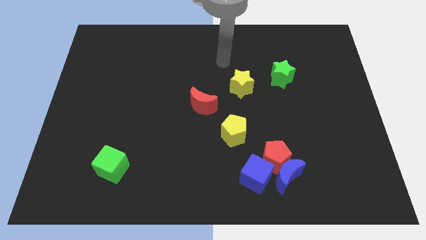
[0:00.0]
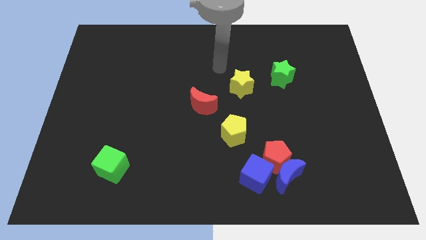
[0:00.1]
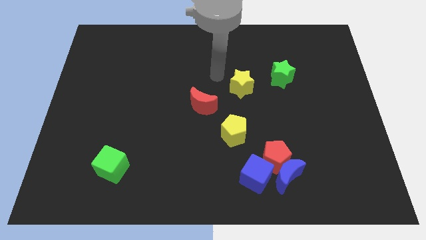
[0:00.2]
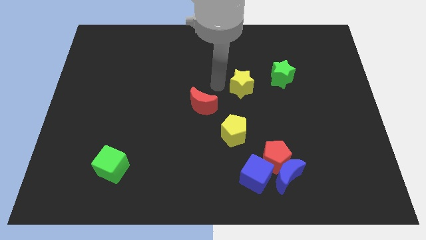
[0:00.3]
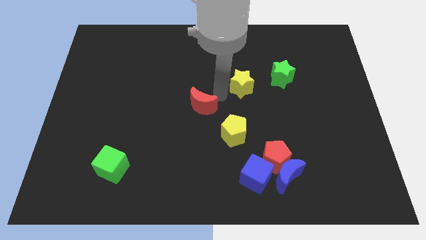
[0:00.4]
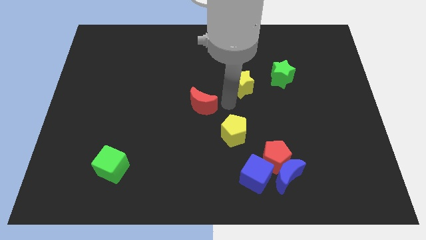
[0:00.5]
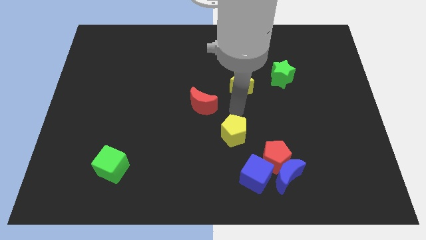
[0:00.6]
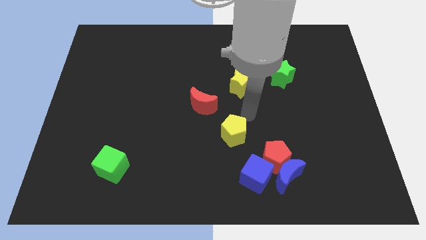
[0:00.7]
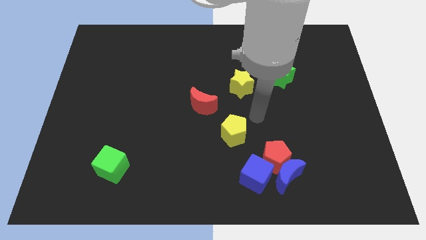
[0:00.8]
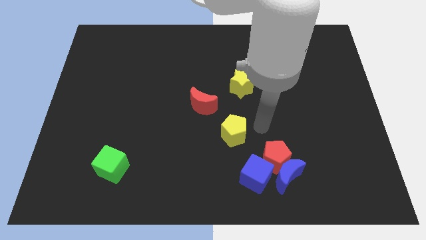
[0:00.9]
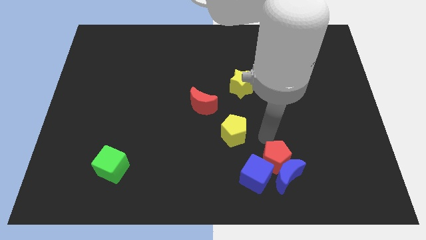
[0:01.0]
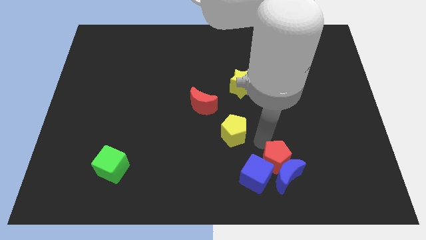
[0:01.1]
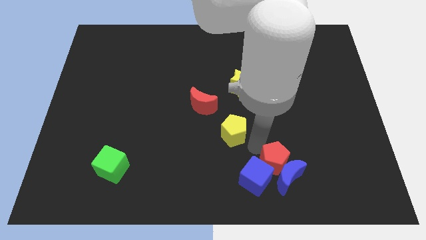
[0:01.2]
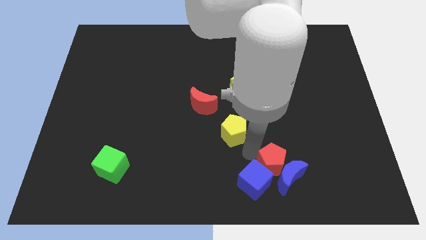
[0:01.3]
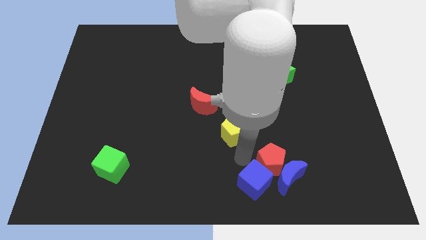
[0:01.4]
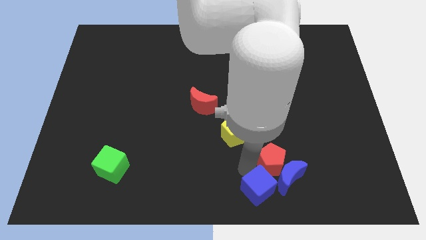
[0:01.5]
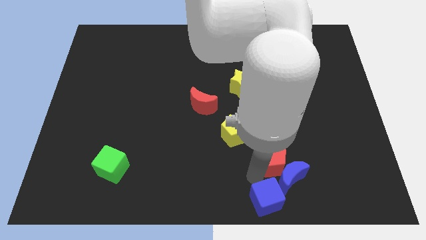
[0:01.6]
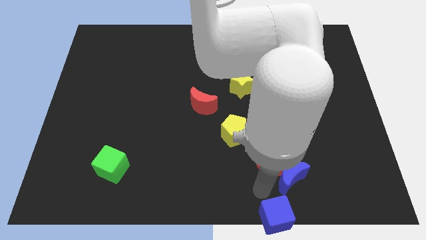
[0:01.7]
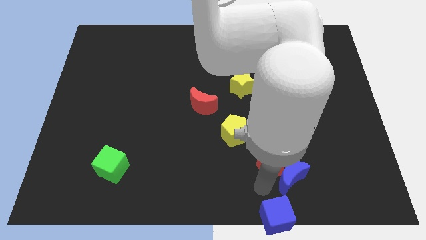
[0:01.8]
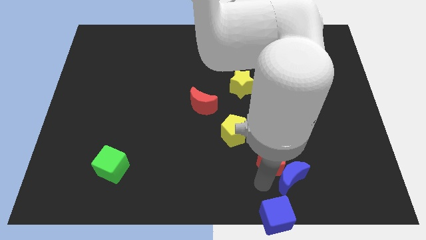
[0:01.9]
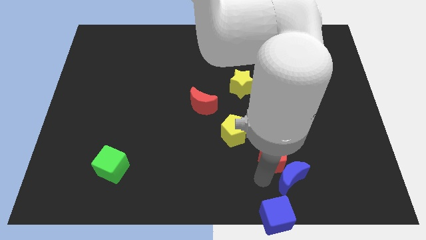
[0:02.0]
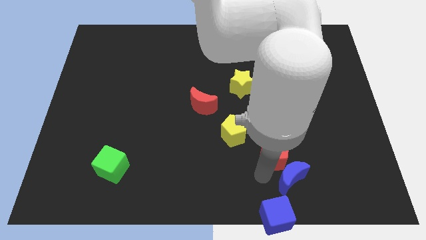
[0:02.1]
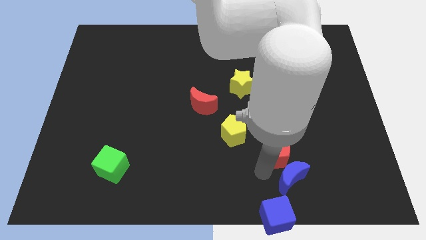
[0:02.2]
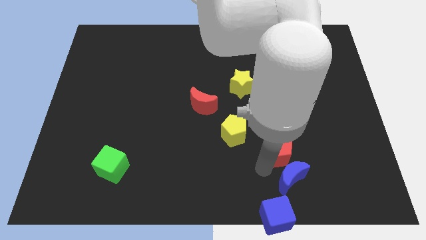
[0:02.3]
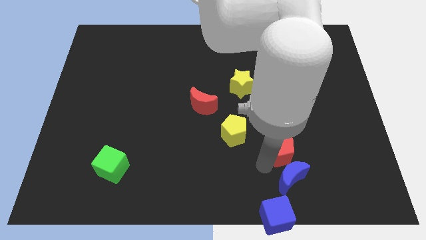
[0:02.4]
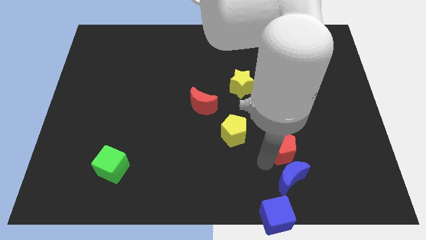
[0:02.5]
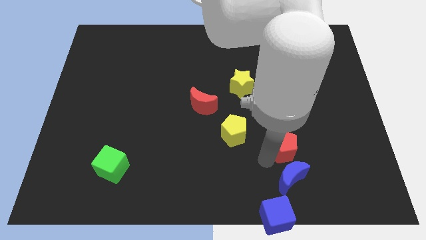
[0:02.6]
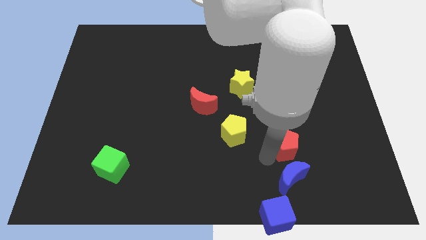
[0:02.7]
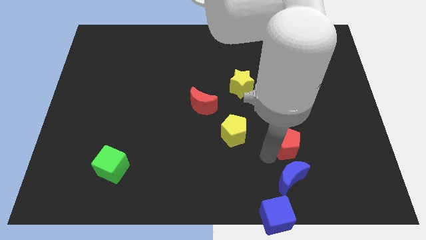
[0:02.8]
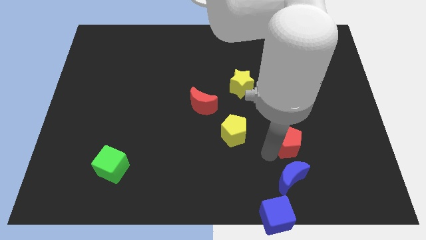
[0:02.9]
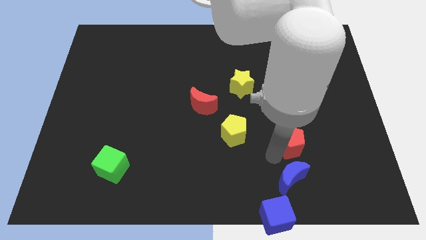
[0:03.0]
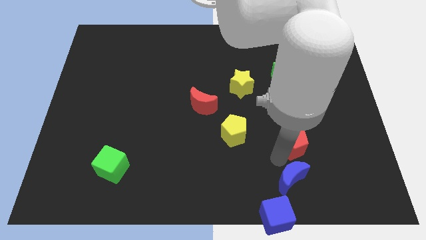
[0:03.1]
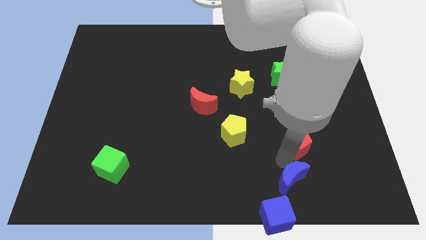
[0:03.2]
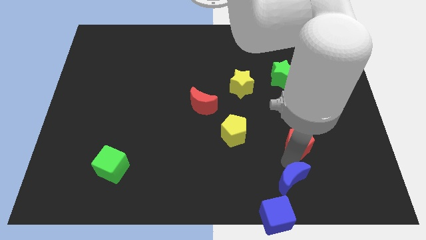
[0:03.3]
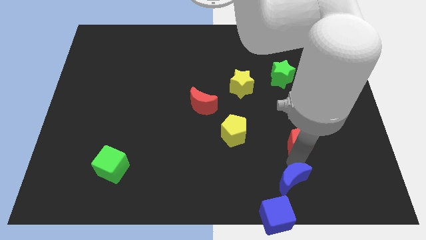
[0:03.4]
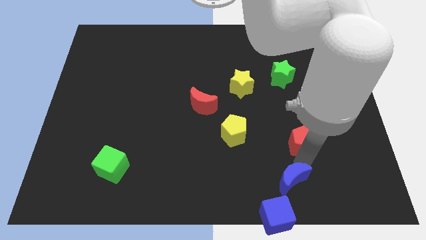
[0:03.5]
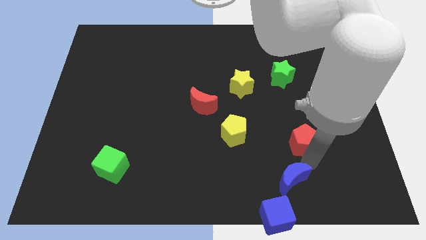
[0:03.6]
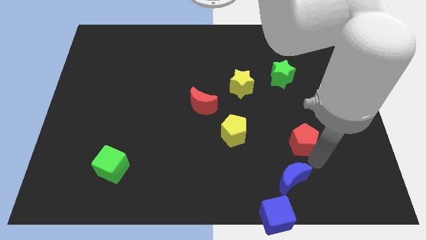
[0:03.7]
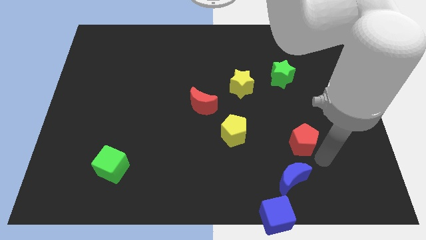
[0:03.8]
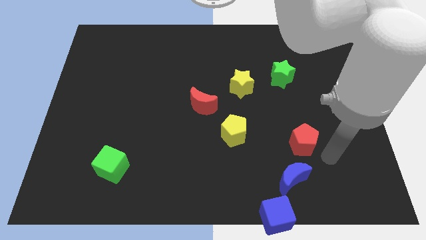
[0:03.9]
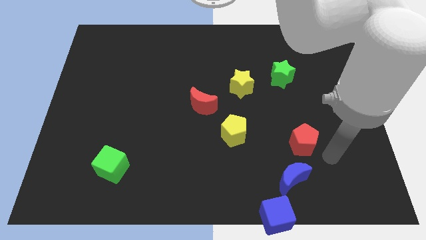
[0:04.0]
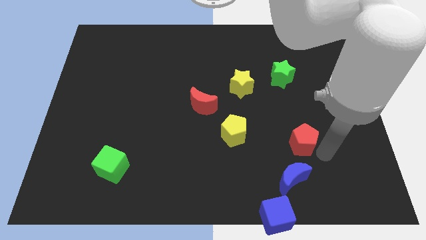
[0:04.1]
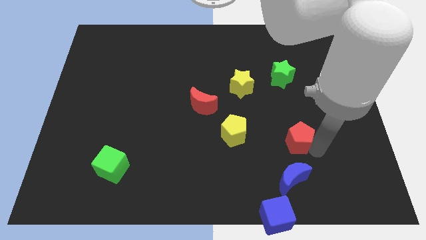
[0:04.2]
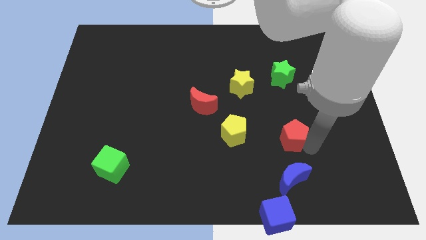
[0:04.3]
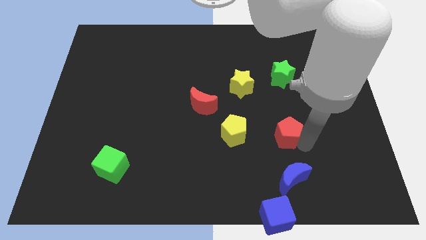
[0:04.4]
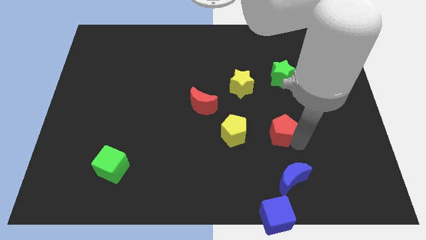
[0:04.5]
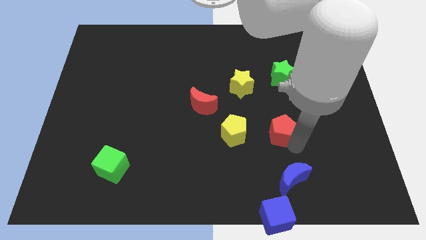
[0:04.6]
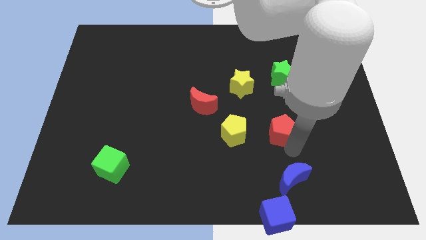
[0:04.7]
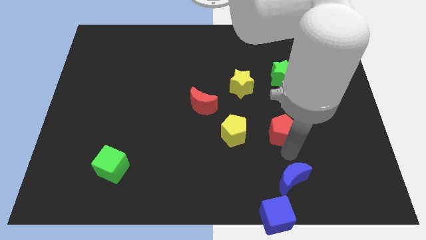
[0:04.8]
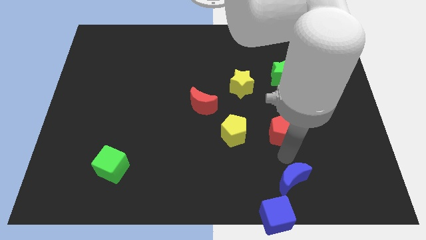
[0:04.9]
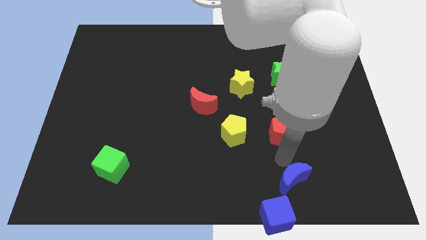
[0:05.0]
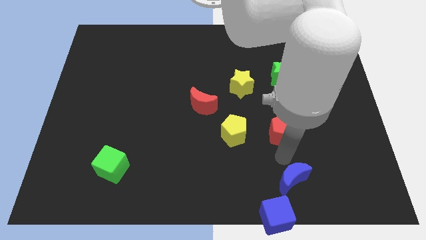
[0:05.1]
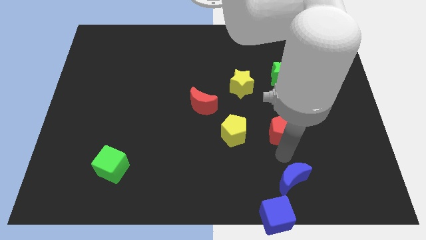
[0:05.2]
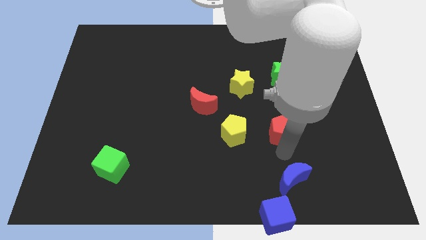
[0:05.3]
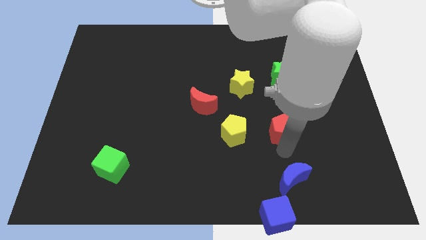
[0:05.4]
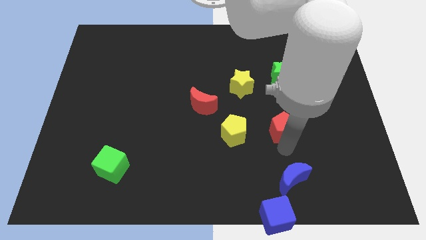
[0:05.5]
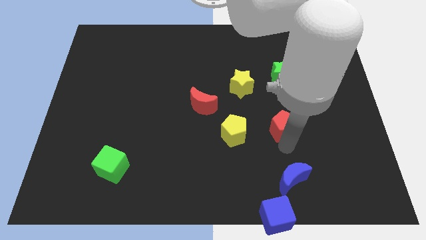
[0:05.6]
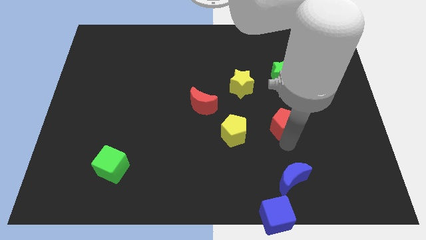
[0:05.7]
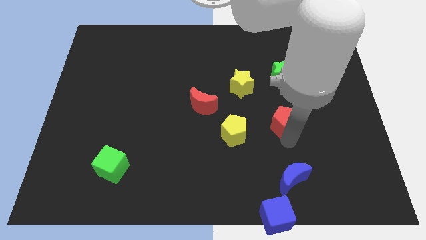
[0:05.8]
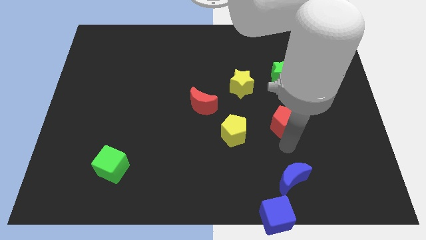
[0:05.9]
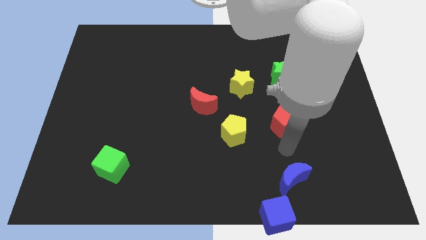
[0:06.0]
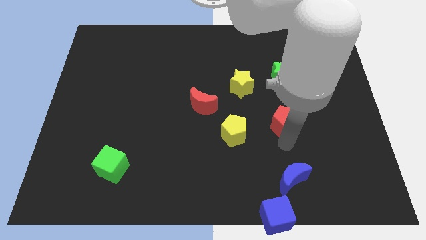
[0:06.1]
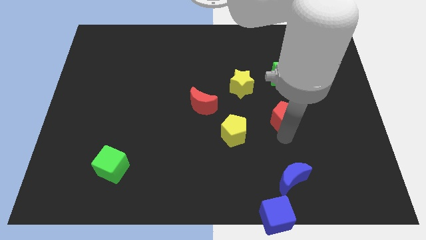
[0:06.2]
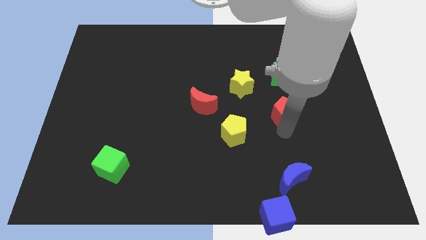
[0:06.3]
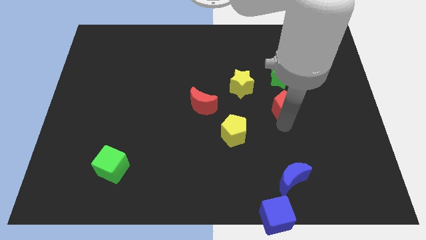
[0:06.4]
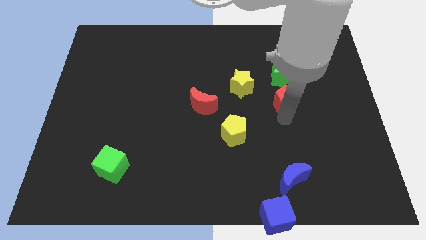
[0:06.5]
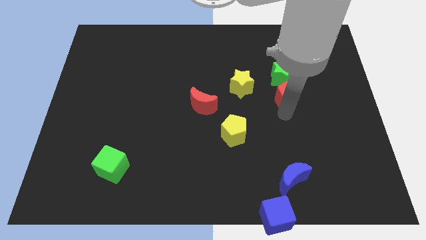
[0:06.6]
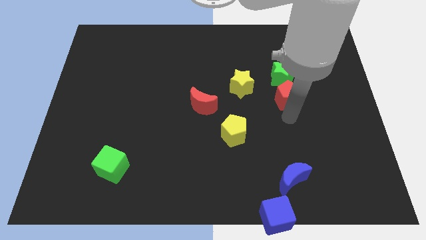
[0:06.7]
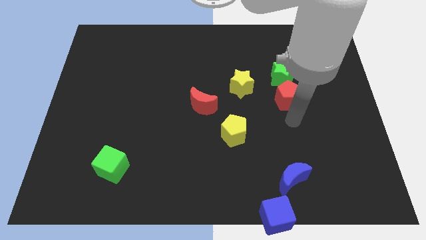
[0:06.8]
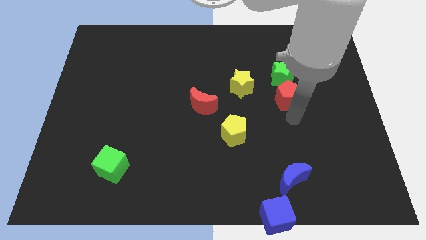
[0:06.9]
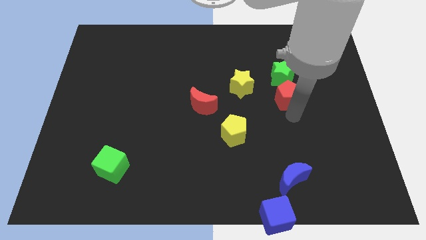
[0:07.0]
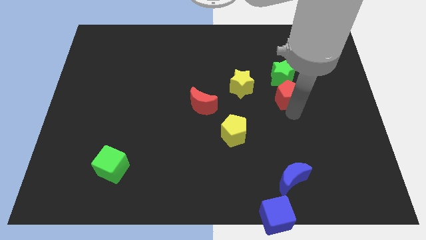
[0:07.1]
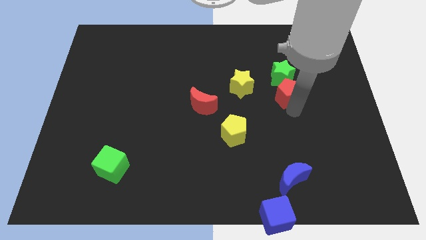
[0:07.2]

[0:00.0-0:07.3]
move the red pentagon next to the green star
